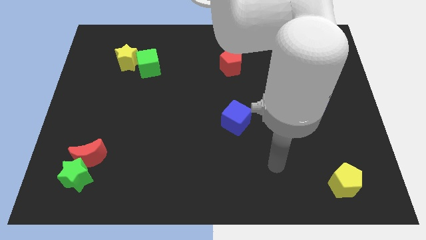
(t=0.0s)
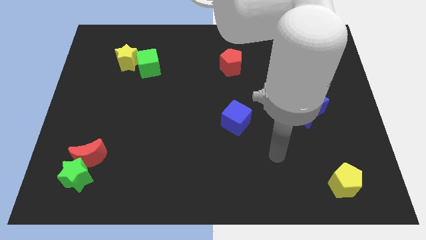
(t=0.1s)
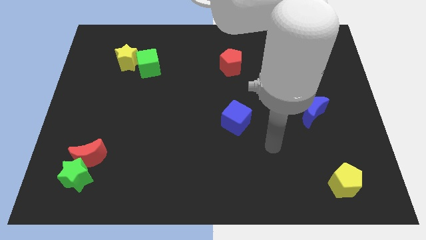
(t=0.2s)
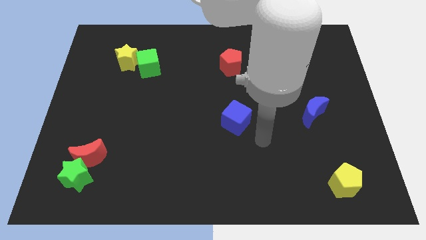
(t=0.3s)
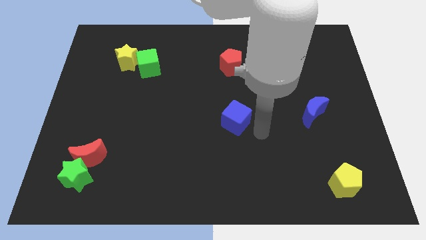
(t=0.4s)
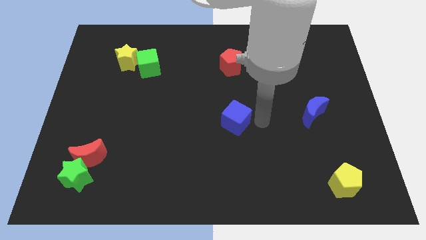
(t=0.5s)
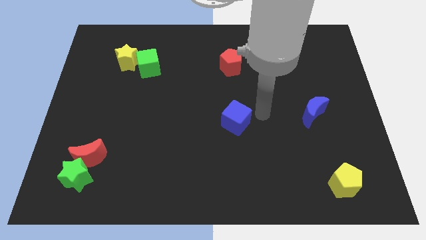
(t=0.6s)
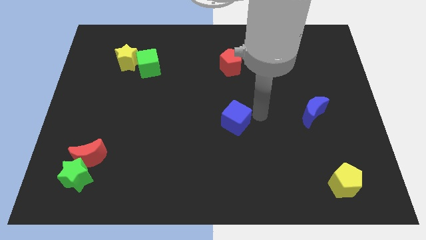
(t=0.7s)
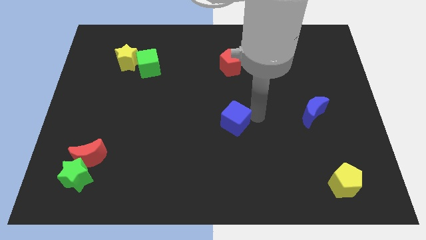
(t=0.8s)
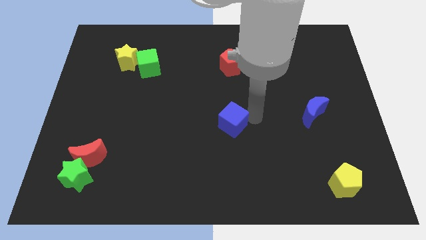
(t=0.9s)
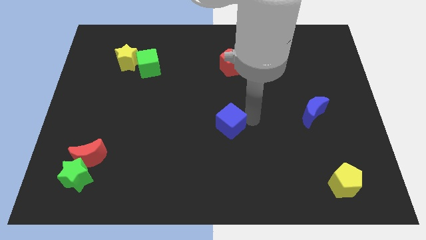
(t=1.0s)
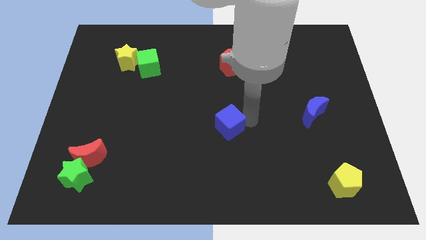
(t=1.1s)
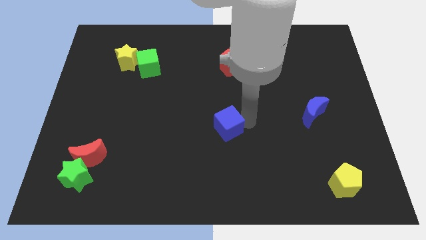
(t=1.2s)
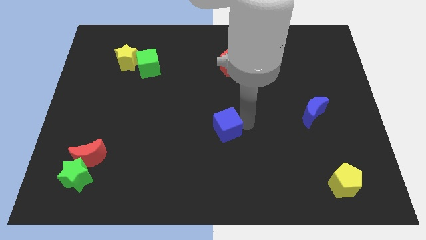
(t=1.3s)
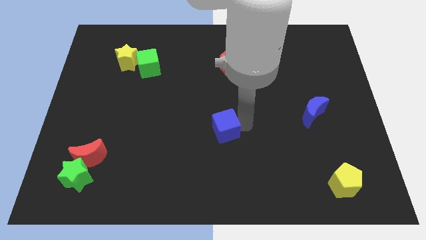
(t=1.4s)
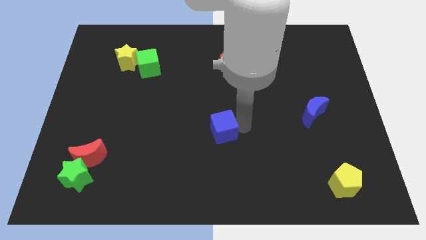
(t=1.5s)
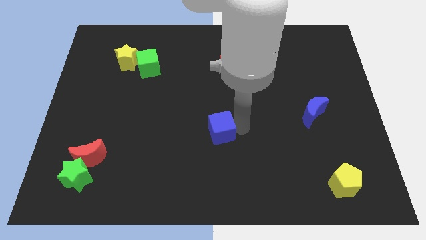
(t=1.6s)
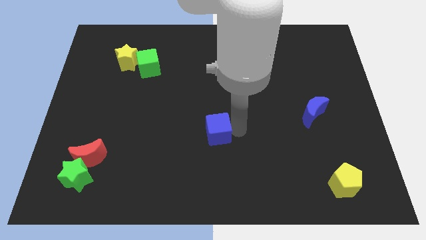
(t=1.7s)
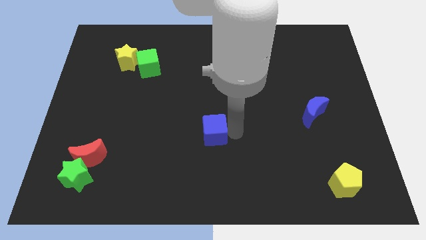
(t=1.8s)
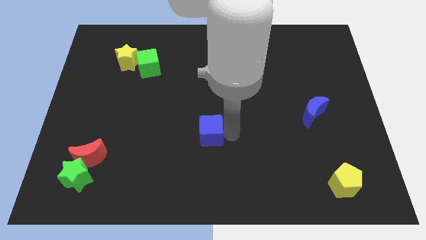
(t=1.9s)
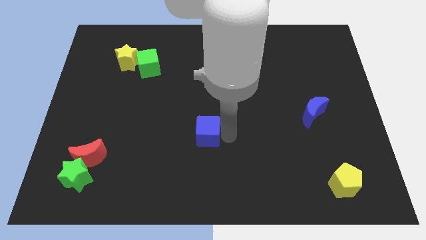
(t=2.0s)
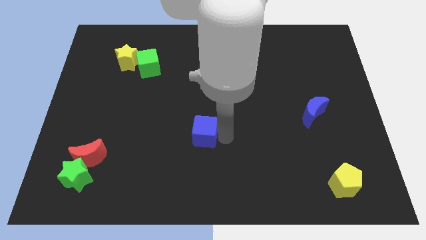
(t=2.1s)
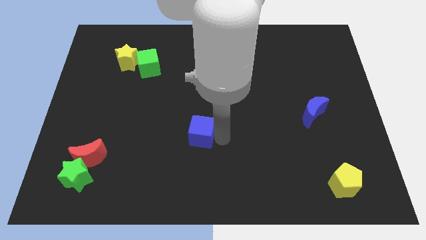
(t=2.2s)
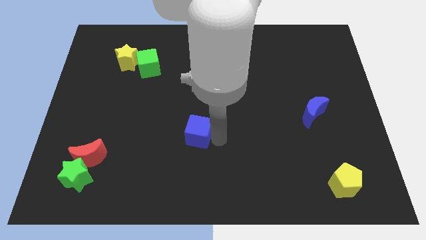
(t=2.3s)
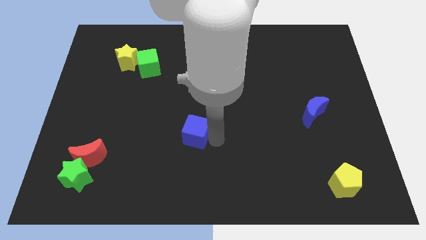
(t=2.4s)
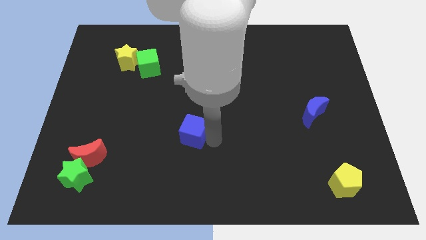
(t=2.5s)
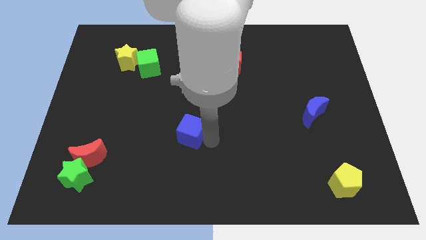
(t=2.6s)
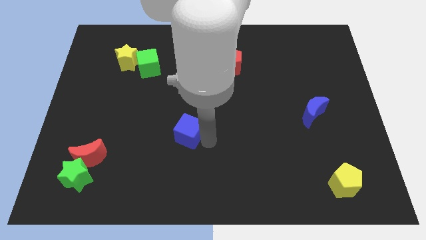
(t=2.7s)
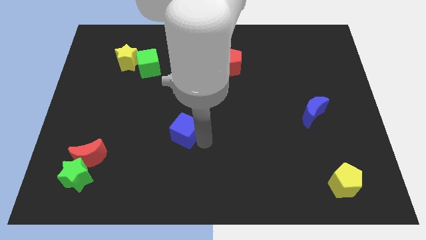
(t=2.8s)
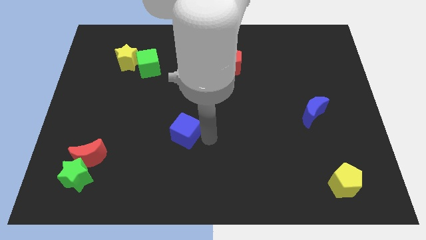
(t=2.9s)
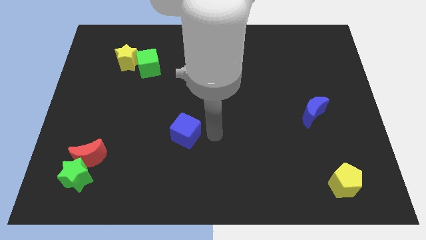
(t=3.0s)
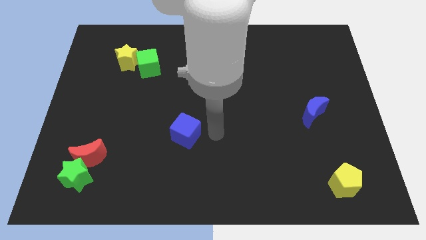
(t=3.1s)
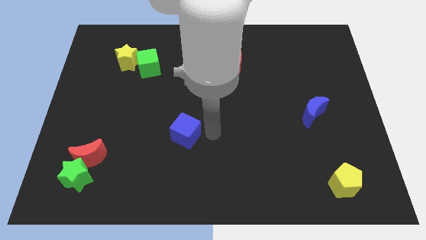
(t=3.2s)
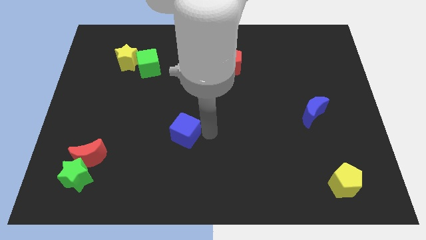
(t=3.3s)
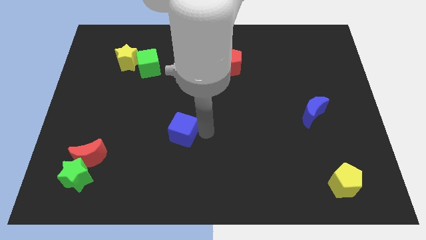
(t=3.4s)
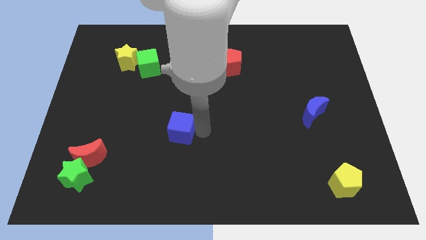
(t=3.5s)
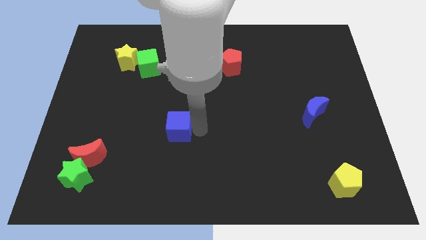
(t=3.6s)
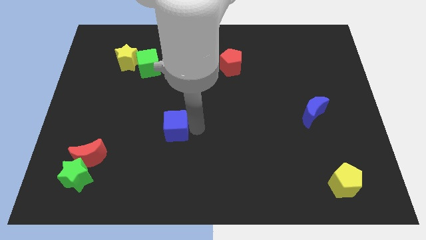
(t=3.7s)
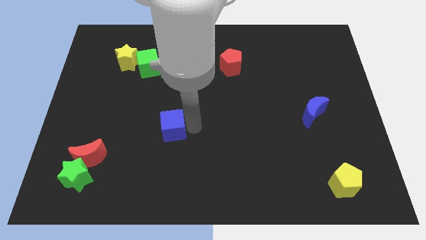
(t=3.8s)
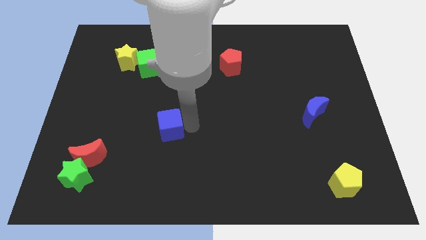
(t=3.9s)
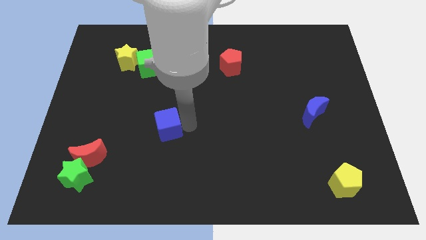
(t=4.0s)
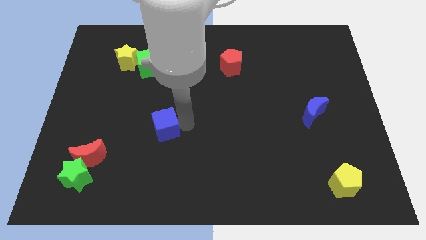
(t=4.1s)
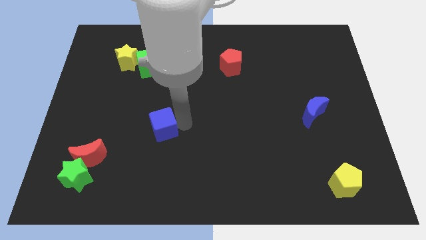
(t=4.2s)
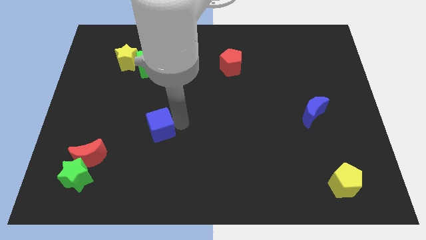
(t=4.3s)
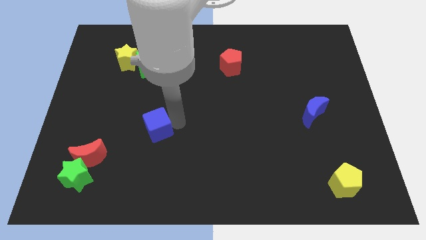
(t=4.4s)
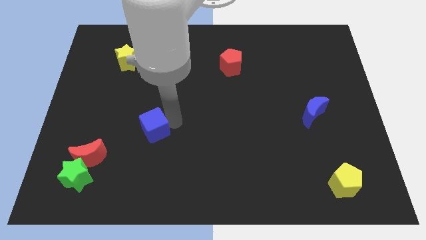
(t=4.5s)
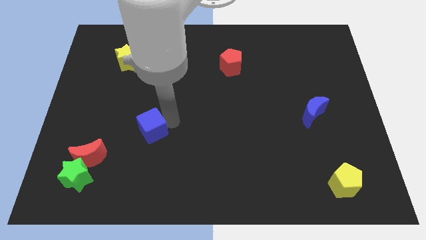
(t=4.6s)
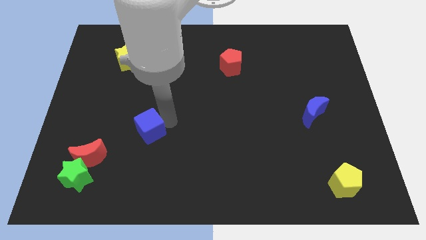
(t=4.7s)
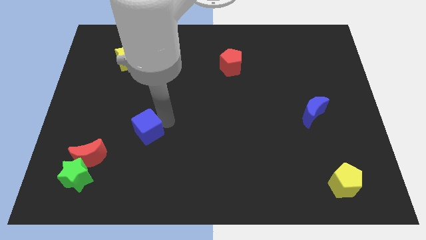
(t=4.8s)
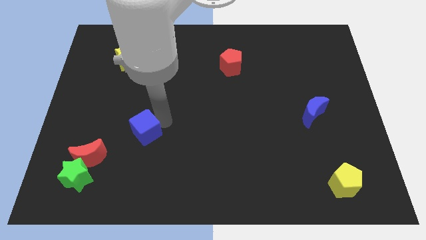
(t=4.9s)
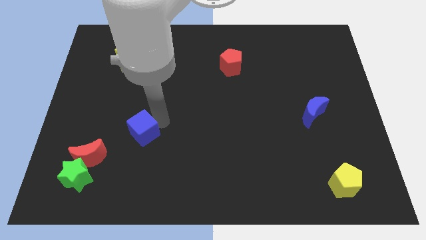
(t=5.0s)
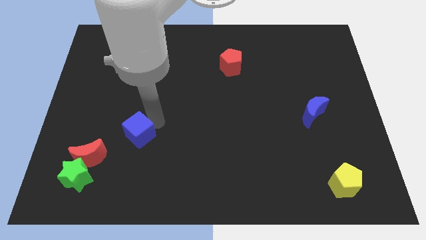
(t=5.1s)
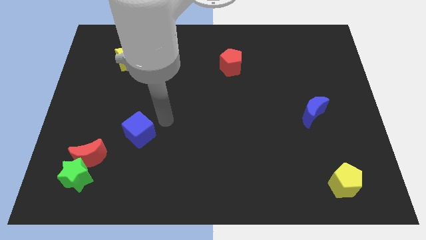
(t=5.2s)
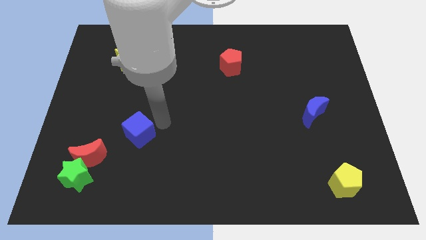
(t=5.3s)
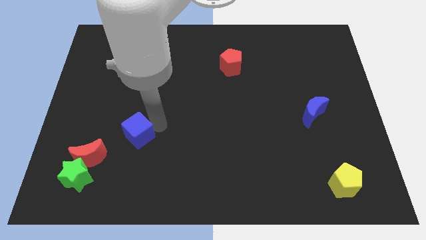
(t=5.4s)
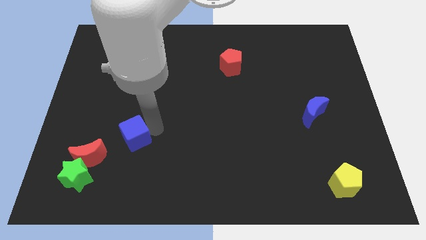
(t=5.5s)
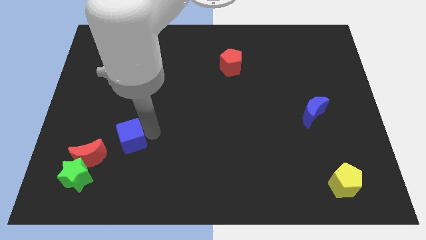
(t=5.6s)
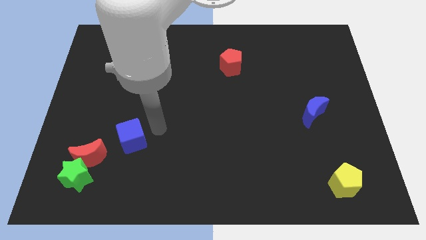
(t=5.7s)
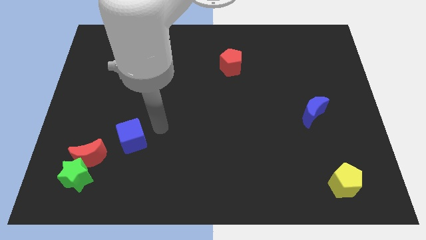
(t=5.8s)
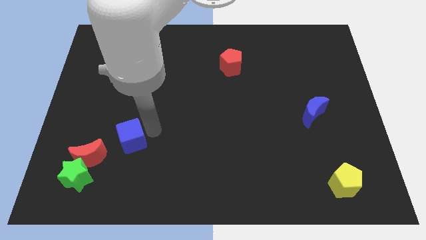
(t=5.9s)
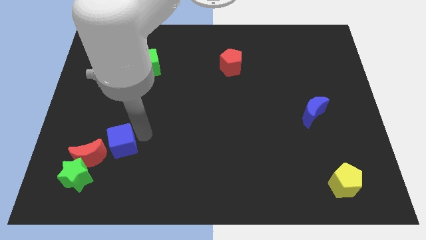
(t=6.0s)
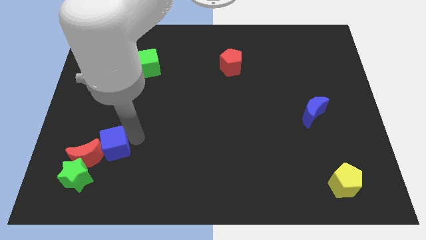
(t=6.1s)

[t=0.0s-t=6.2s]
move the blue cube to the red moon

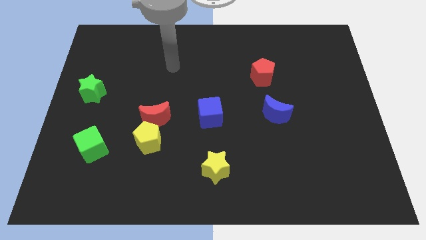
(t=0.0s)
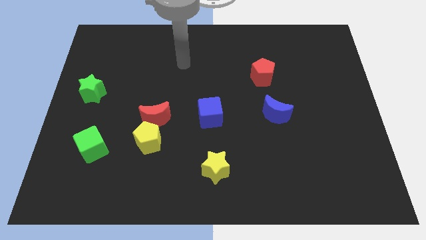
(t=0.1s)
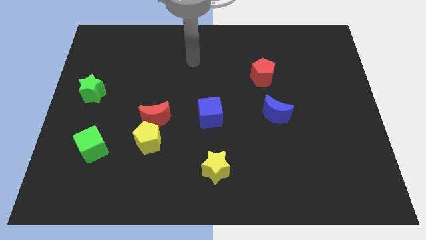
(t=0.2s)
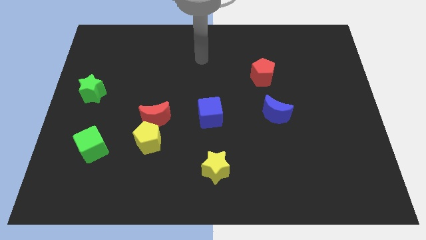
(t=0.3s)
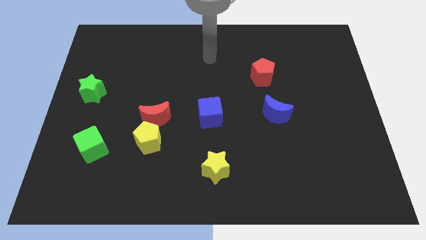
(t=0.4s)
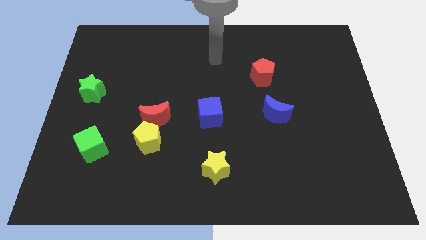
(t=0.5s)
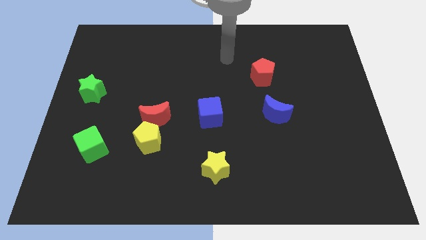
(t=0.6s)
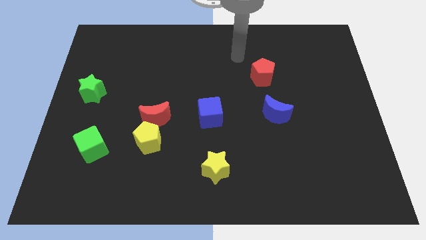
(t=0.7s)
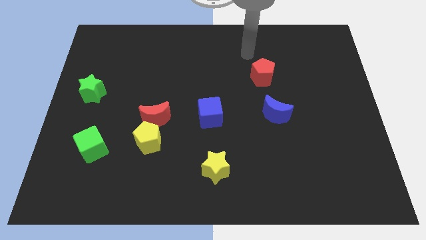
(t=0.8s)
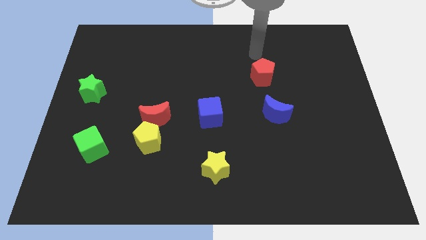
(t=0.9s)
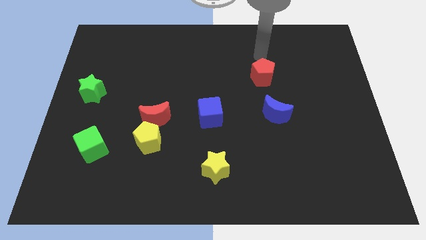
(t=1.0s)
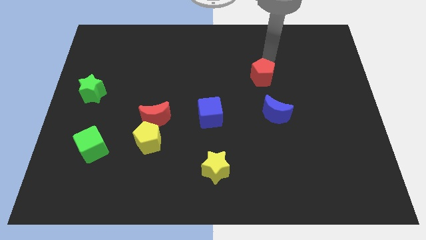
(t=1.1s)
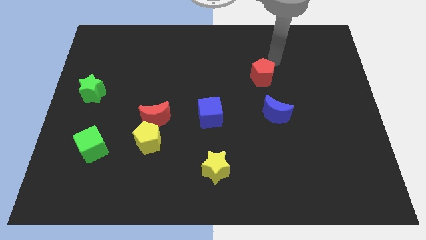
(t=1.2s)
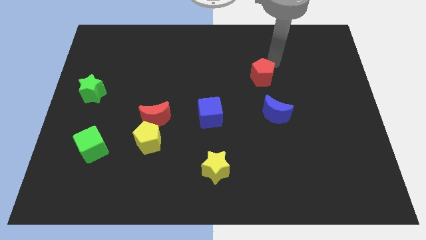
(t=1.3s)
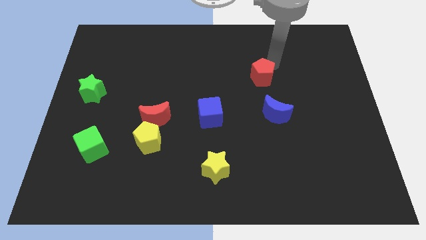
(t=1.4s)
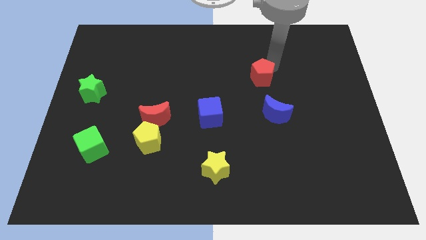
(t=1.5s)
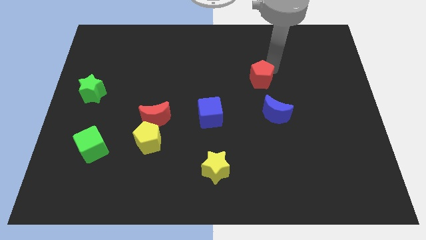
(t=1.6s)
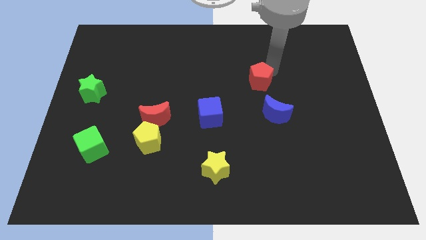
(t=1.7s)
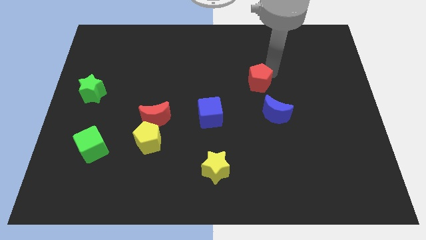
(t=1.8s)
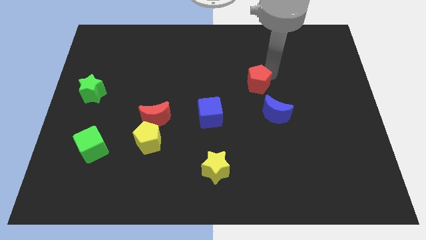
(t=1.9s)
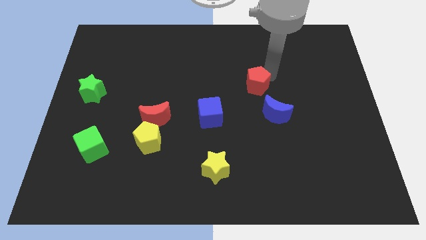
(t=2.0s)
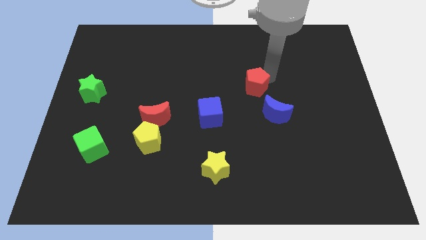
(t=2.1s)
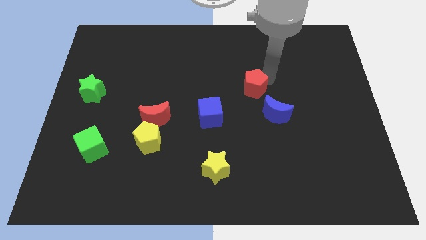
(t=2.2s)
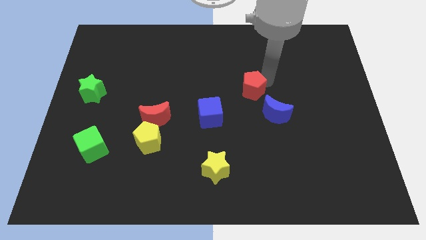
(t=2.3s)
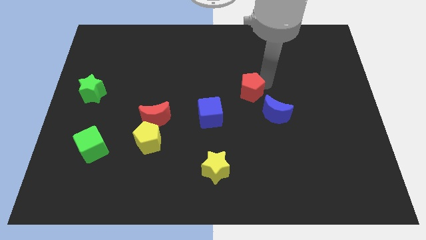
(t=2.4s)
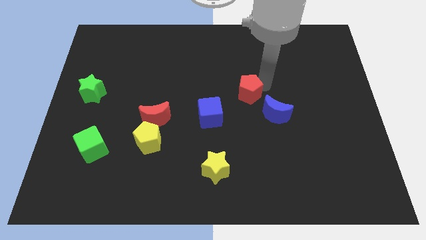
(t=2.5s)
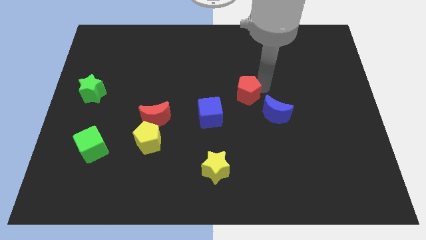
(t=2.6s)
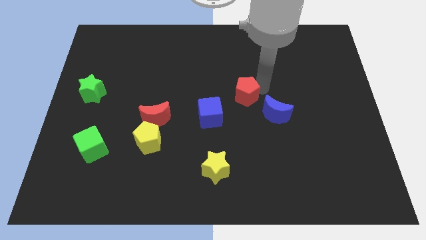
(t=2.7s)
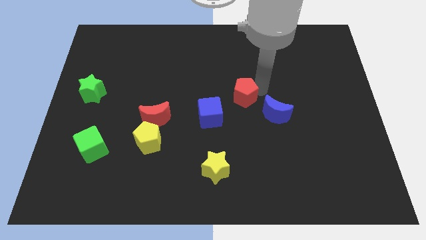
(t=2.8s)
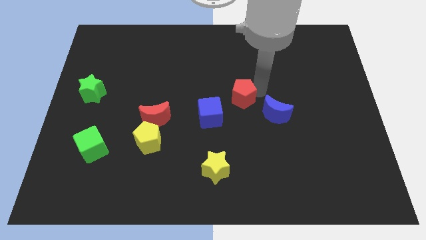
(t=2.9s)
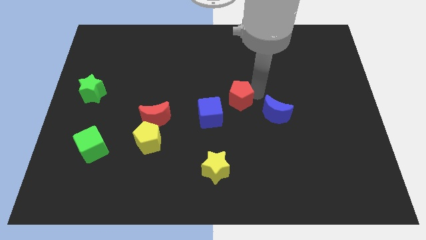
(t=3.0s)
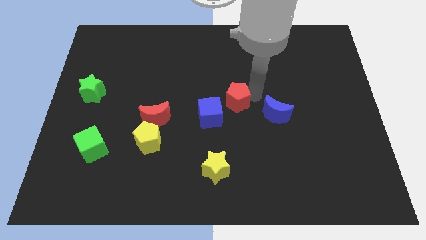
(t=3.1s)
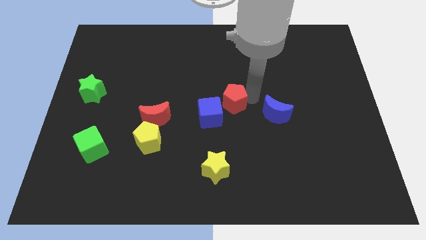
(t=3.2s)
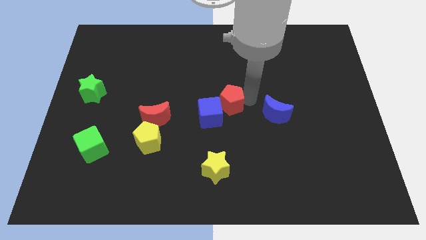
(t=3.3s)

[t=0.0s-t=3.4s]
move the red pentagon close to the blue cube
